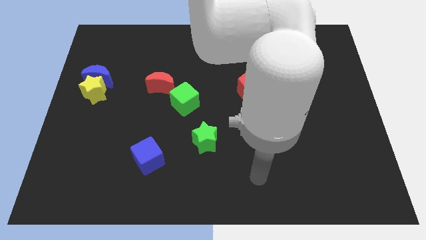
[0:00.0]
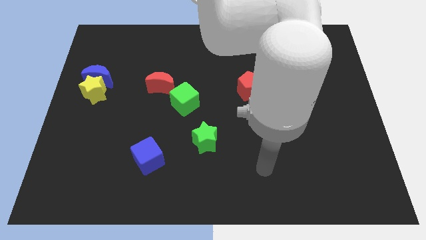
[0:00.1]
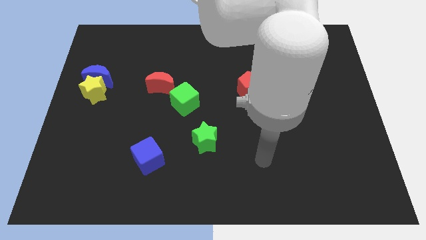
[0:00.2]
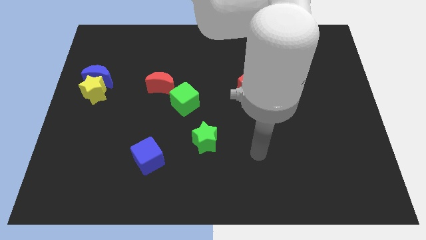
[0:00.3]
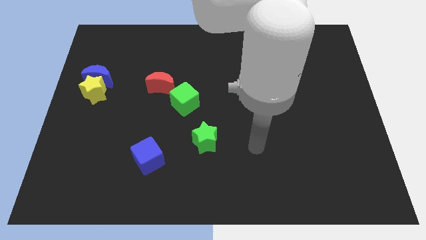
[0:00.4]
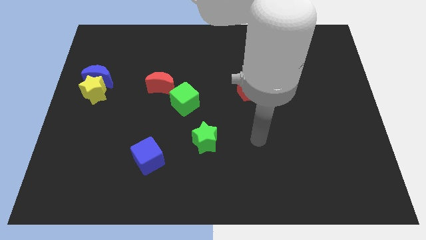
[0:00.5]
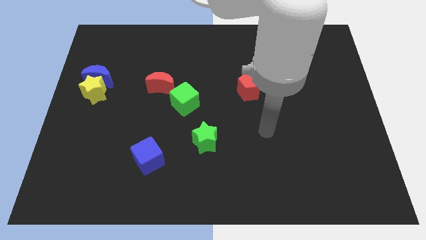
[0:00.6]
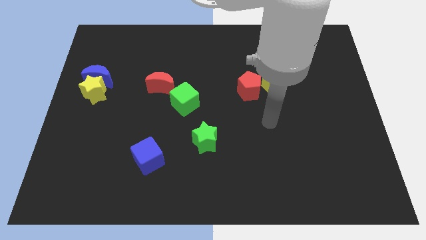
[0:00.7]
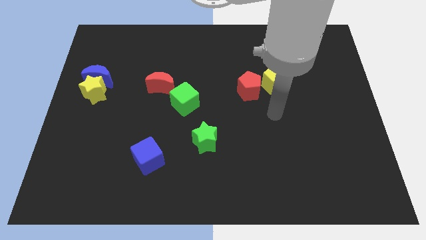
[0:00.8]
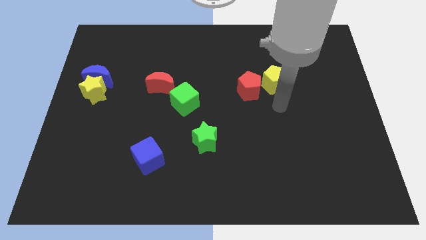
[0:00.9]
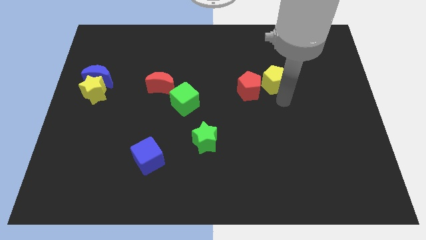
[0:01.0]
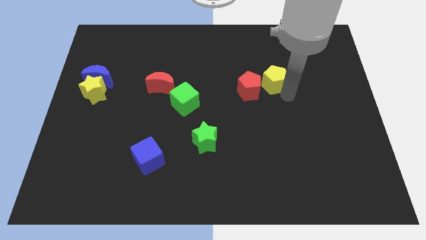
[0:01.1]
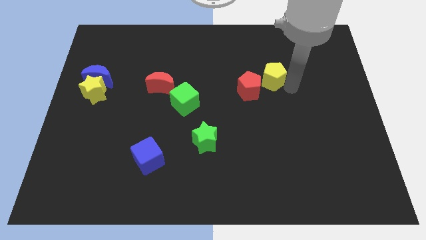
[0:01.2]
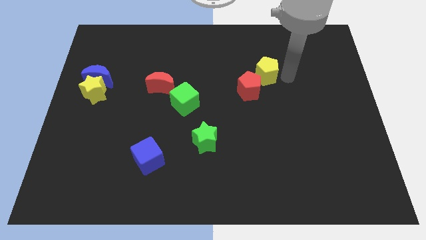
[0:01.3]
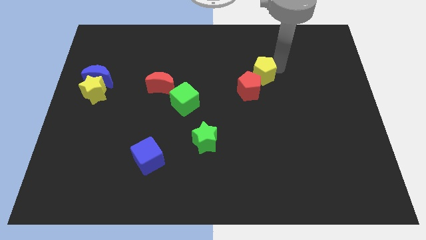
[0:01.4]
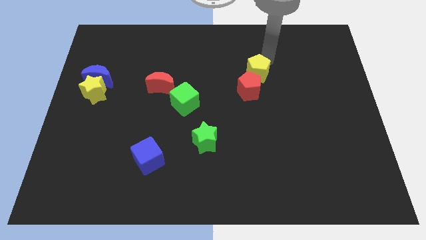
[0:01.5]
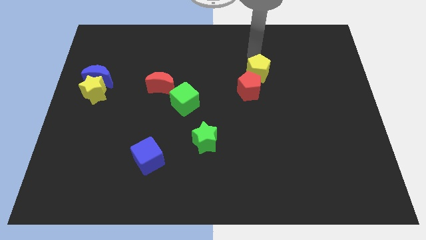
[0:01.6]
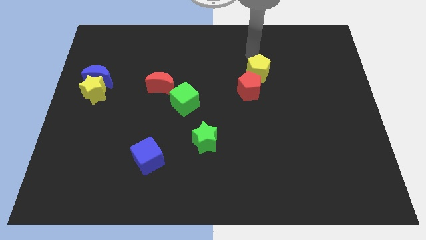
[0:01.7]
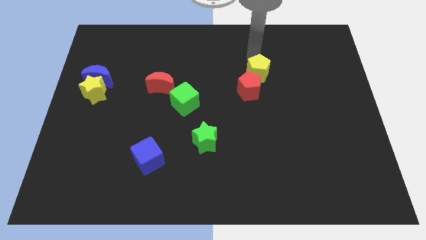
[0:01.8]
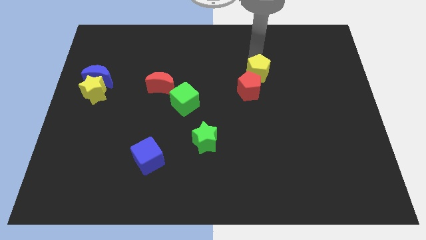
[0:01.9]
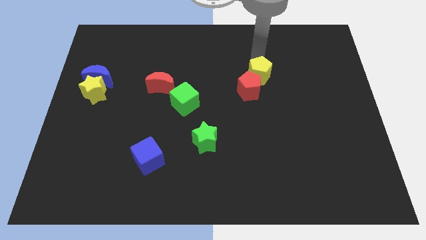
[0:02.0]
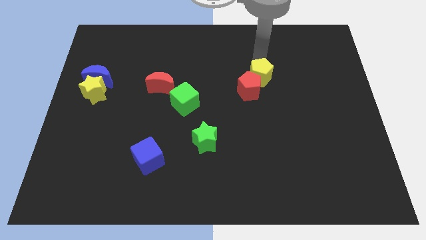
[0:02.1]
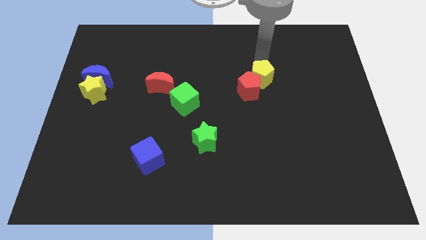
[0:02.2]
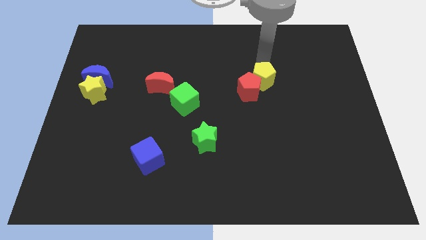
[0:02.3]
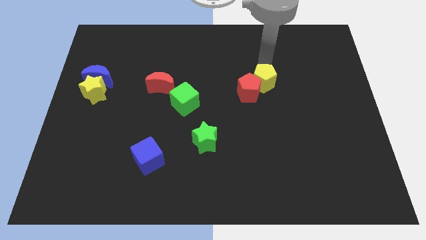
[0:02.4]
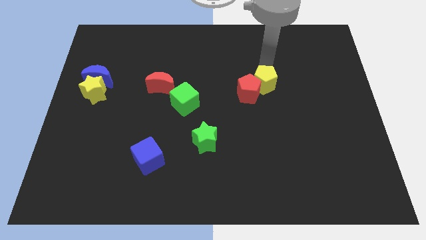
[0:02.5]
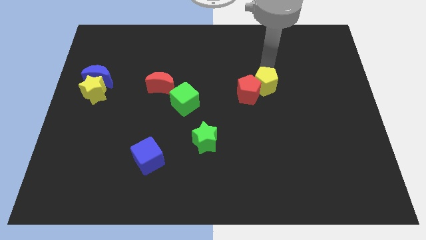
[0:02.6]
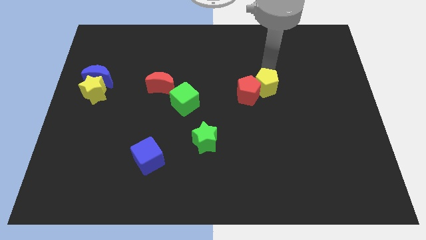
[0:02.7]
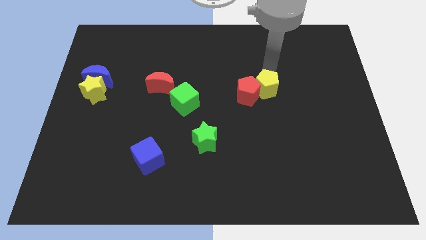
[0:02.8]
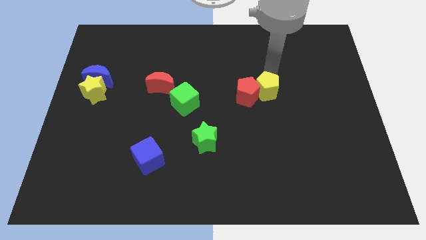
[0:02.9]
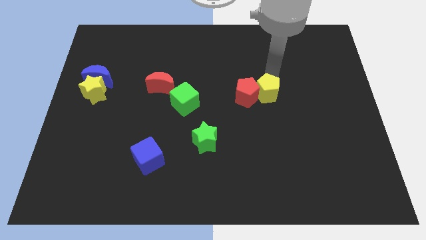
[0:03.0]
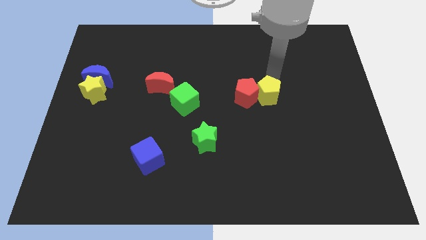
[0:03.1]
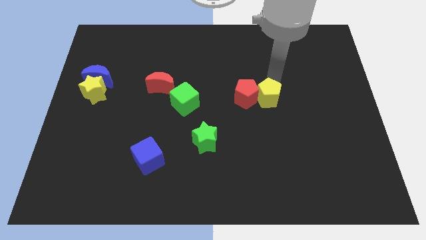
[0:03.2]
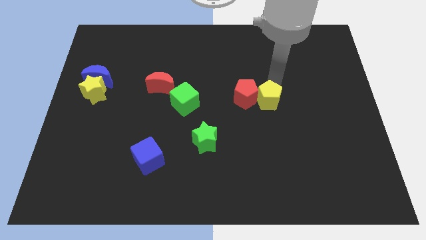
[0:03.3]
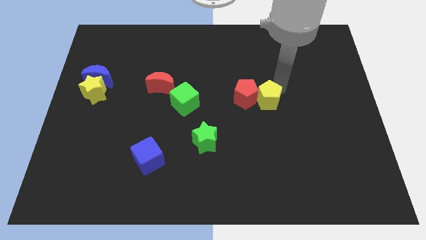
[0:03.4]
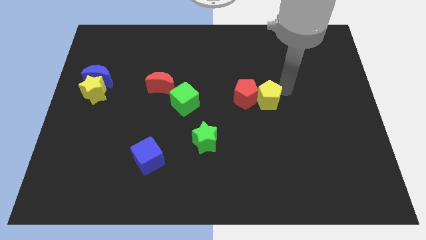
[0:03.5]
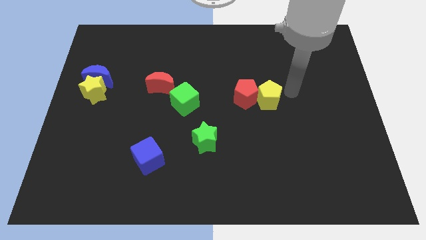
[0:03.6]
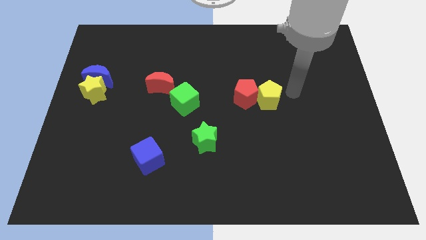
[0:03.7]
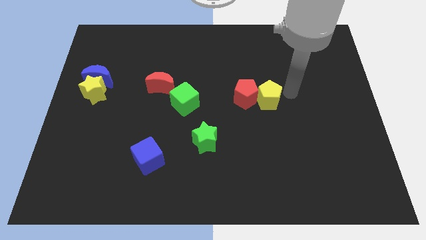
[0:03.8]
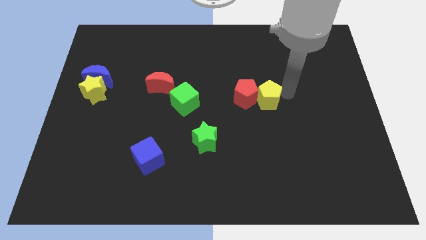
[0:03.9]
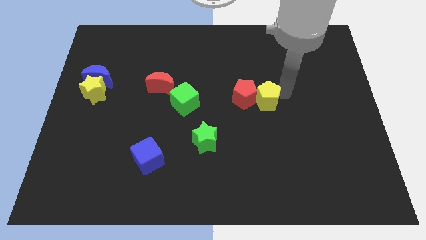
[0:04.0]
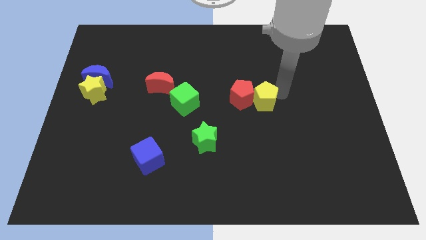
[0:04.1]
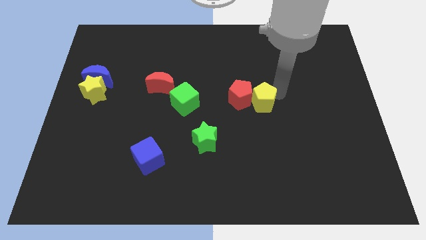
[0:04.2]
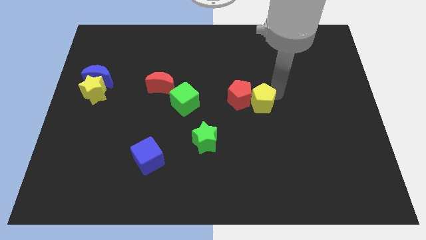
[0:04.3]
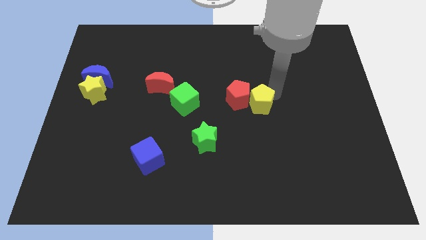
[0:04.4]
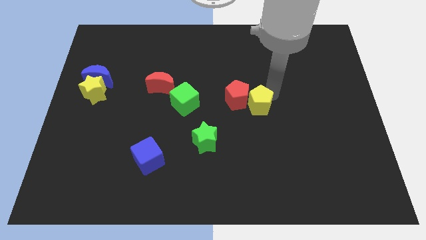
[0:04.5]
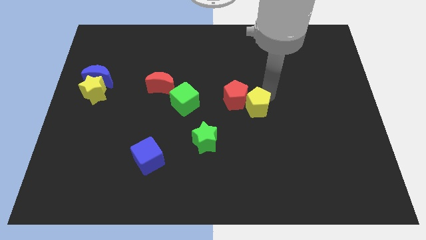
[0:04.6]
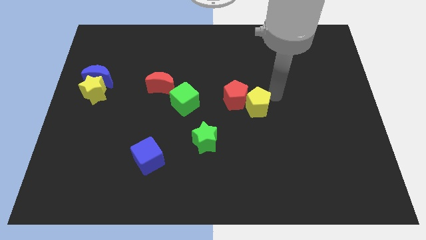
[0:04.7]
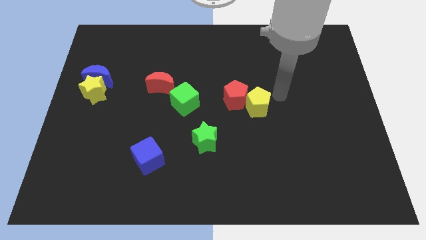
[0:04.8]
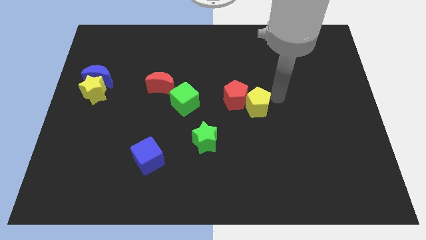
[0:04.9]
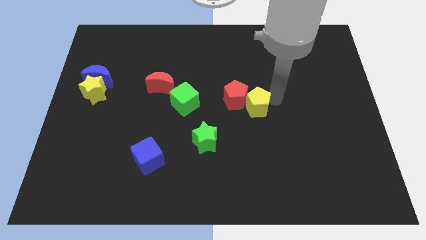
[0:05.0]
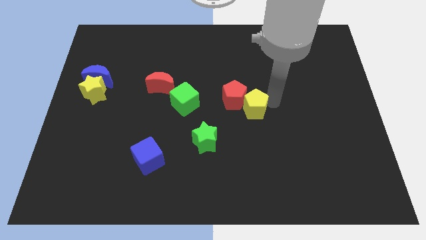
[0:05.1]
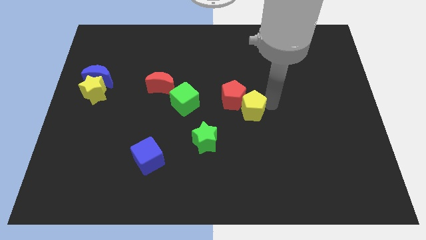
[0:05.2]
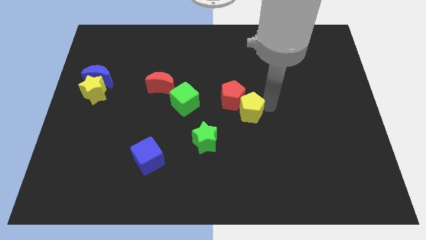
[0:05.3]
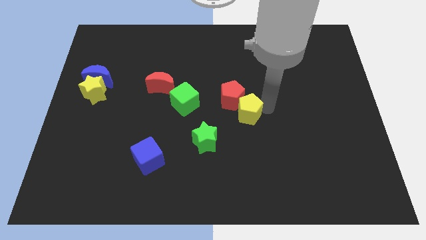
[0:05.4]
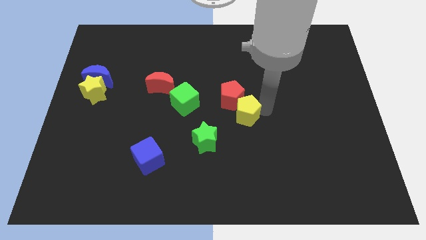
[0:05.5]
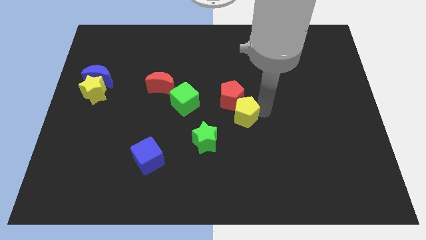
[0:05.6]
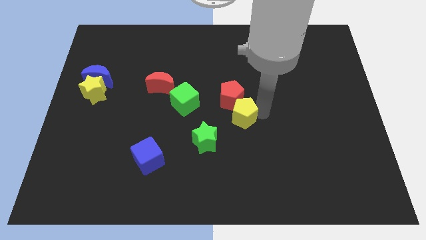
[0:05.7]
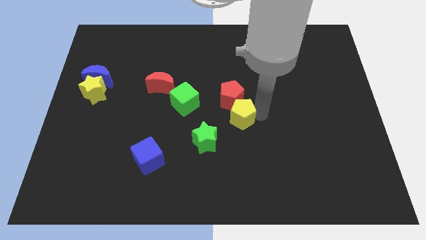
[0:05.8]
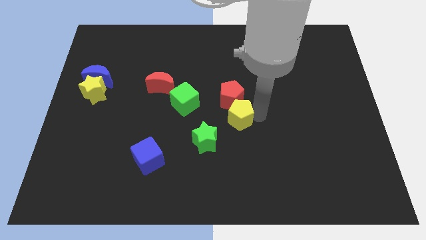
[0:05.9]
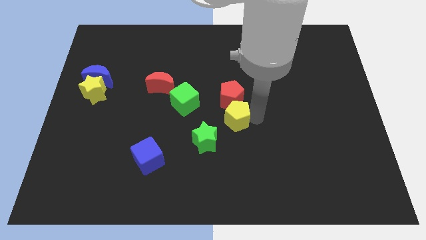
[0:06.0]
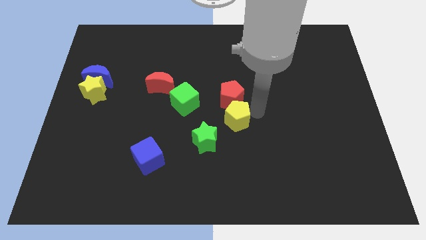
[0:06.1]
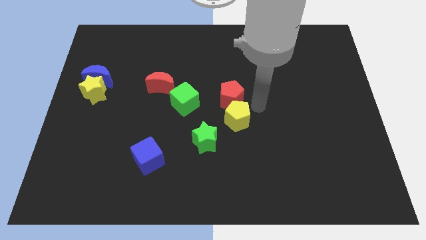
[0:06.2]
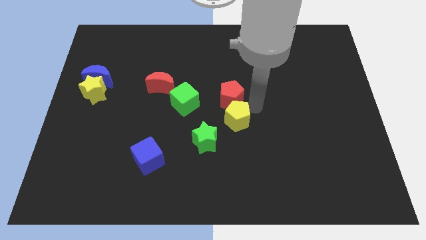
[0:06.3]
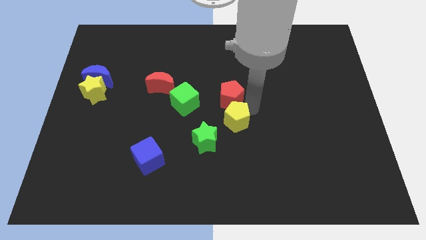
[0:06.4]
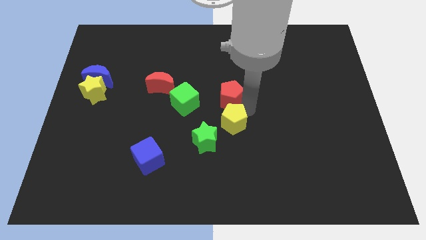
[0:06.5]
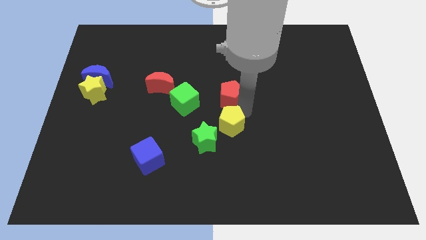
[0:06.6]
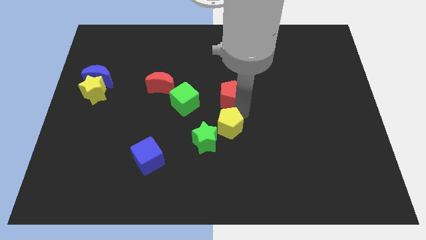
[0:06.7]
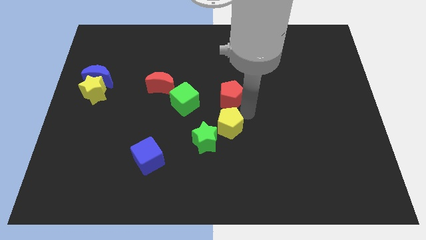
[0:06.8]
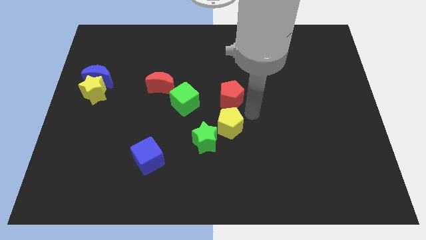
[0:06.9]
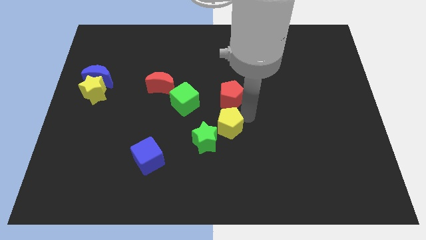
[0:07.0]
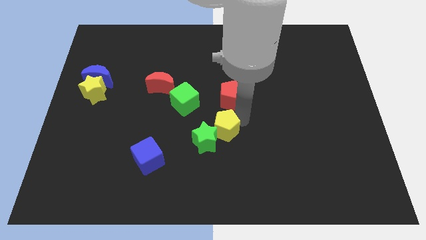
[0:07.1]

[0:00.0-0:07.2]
put the yellow pentagon to the green star

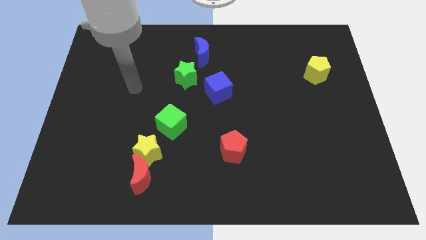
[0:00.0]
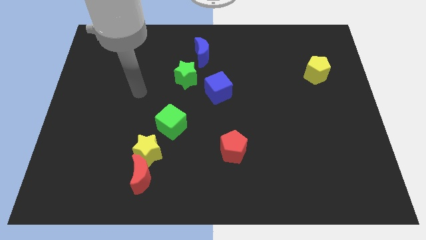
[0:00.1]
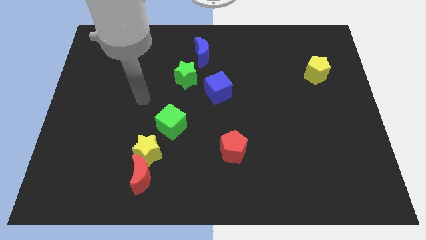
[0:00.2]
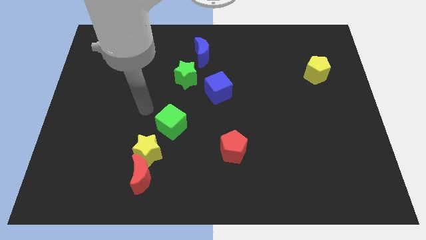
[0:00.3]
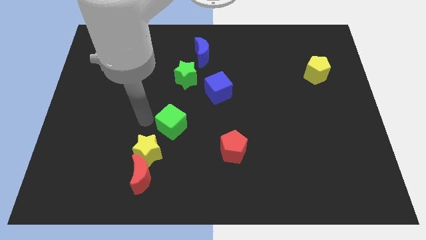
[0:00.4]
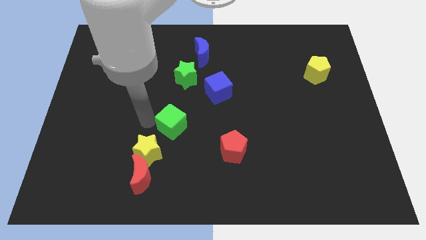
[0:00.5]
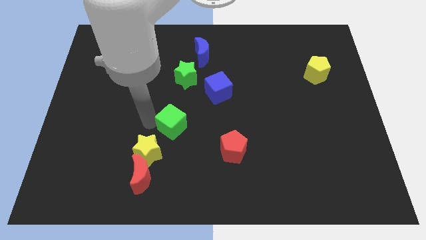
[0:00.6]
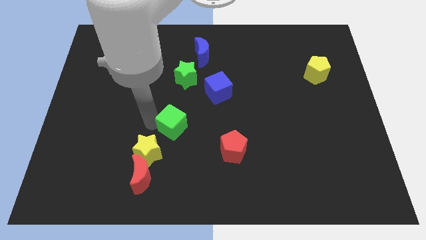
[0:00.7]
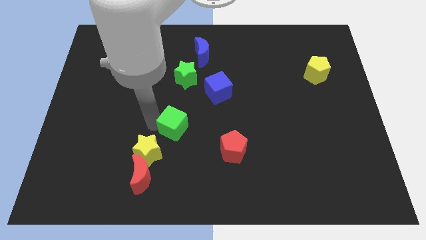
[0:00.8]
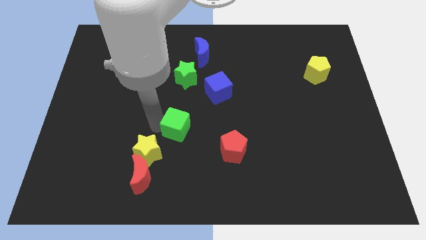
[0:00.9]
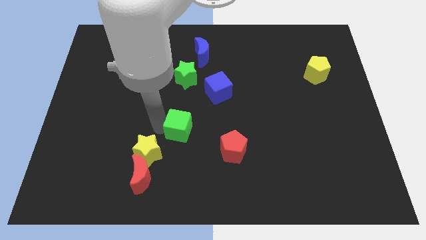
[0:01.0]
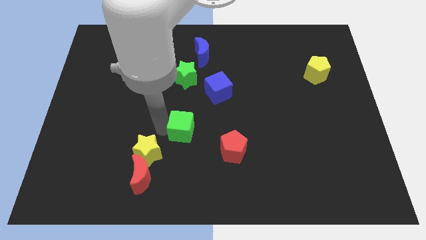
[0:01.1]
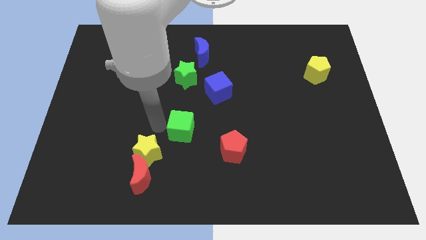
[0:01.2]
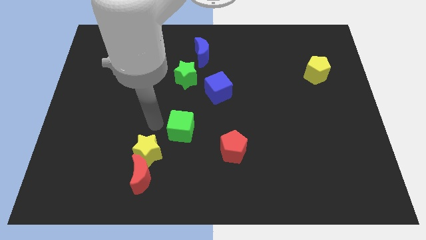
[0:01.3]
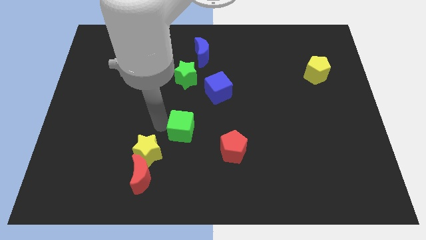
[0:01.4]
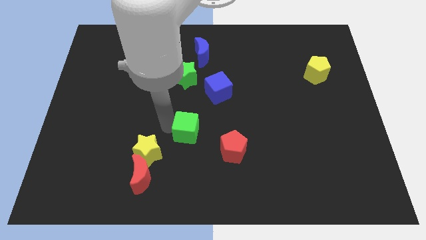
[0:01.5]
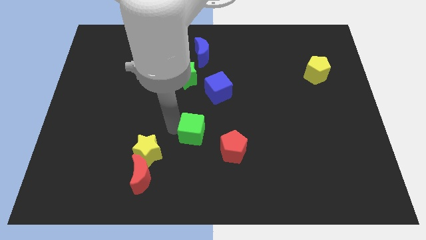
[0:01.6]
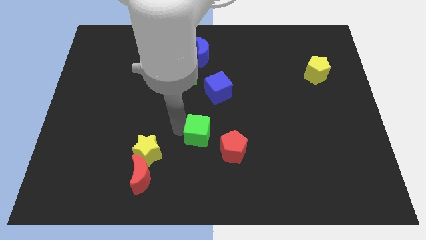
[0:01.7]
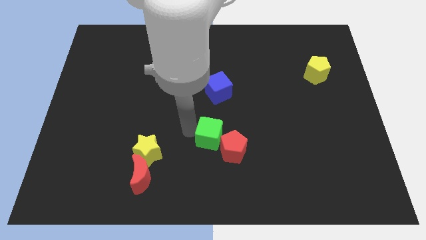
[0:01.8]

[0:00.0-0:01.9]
move the green cube towards the red pentagon
